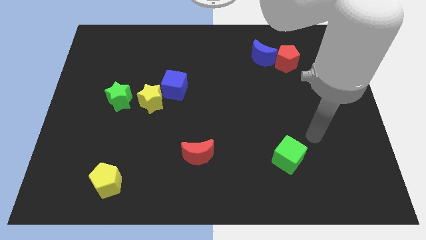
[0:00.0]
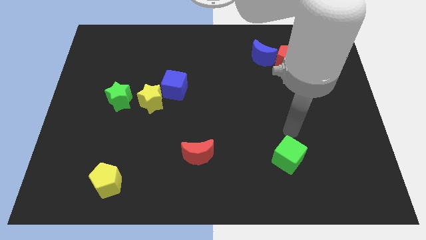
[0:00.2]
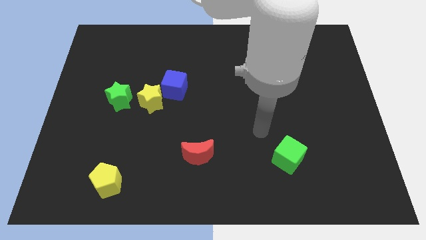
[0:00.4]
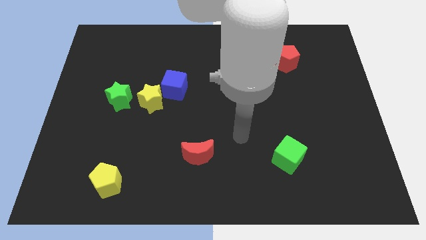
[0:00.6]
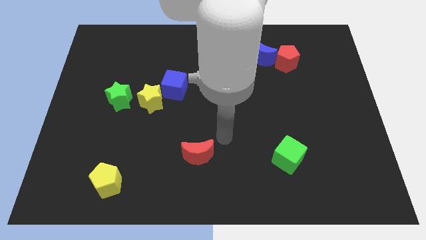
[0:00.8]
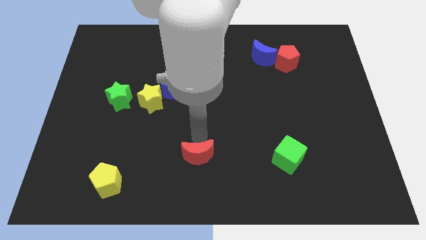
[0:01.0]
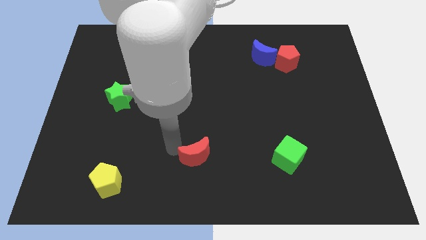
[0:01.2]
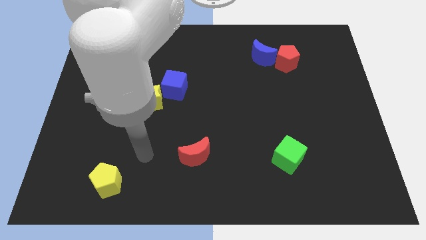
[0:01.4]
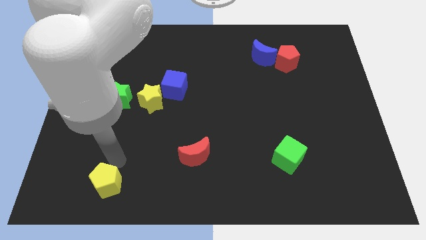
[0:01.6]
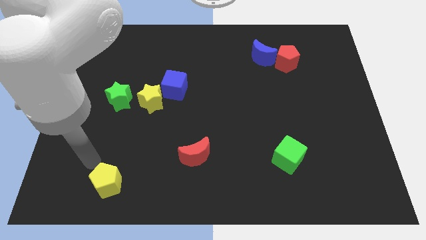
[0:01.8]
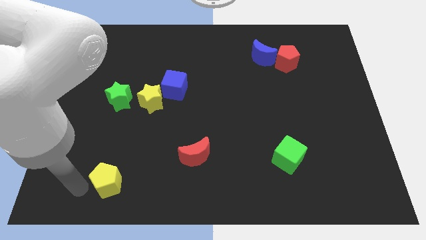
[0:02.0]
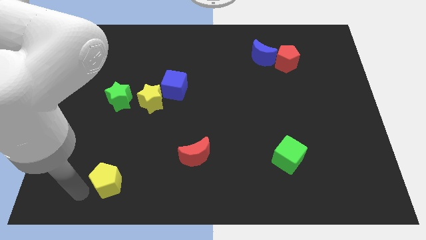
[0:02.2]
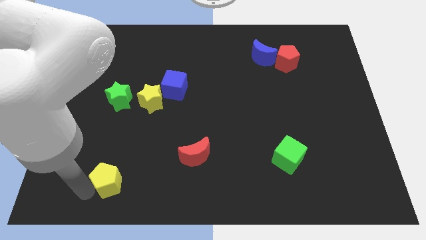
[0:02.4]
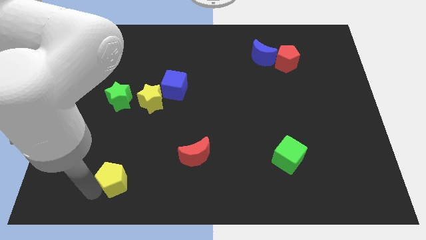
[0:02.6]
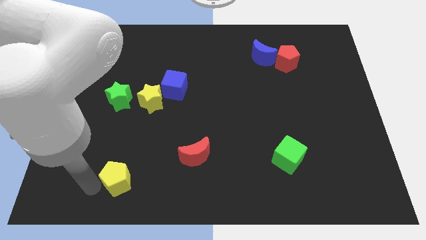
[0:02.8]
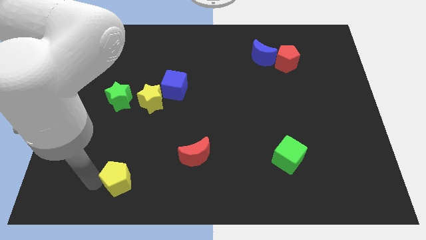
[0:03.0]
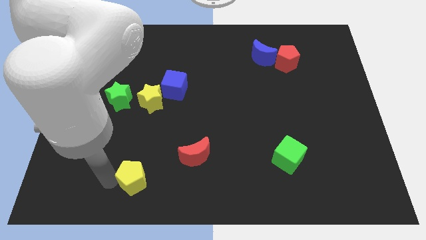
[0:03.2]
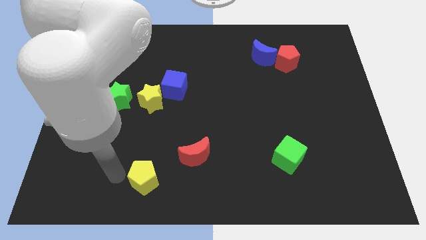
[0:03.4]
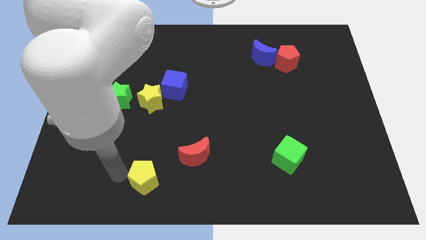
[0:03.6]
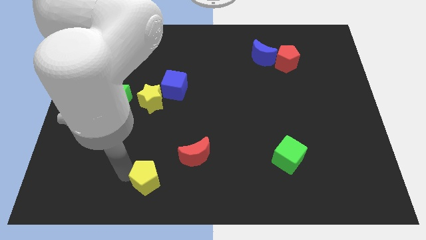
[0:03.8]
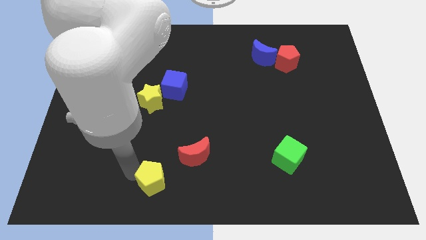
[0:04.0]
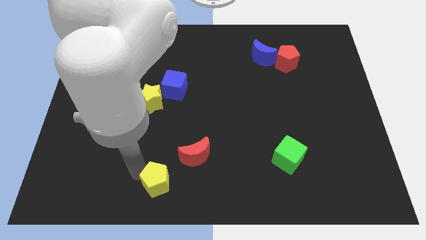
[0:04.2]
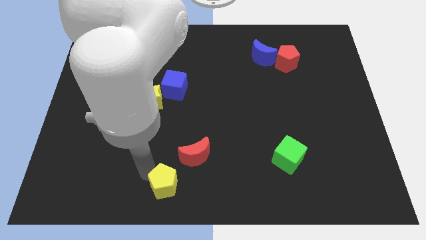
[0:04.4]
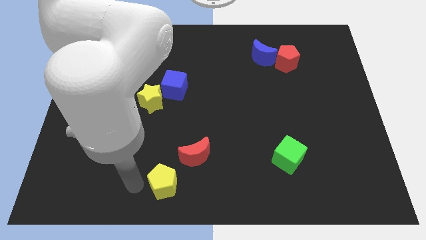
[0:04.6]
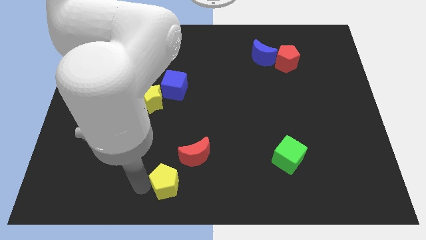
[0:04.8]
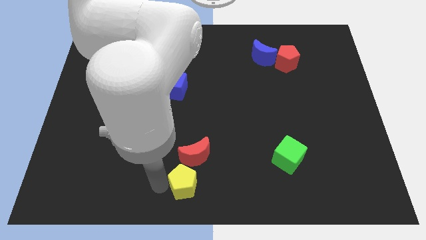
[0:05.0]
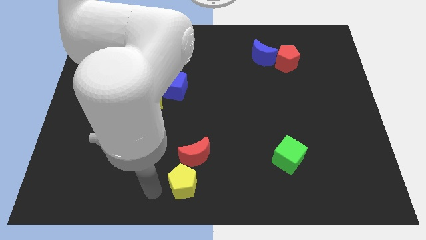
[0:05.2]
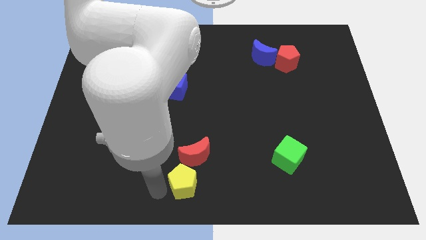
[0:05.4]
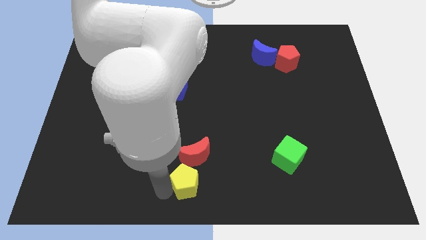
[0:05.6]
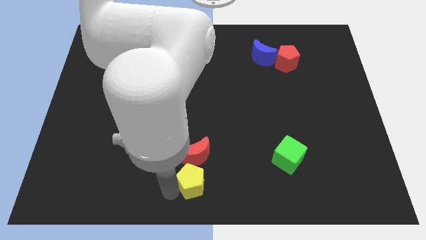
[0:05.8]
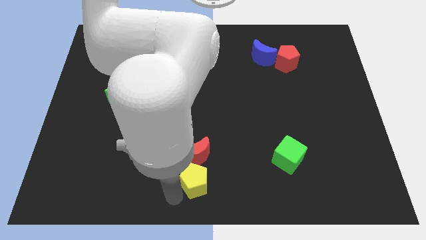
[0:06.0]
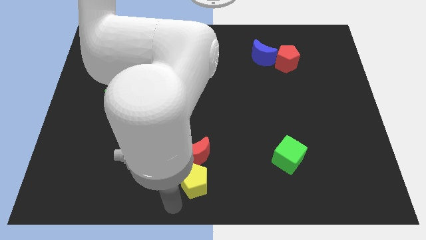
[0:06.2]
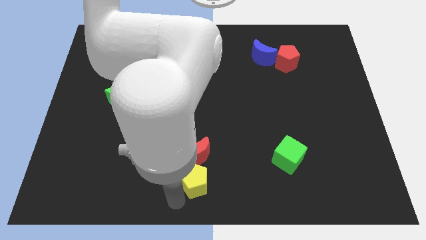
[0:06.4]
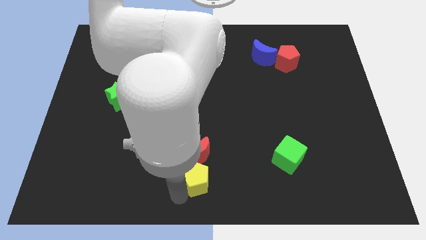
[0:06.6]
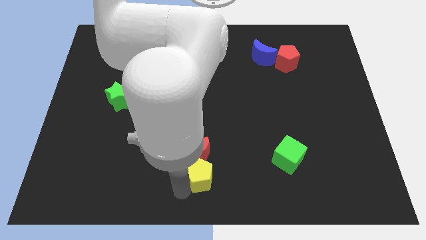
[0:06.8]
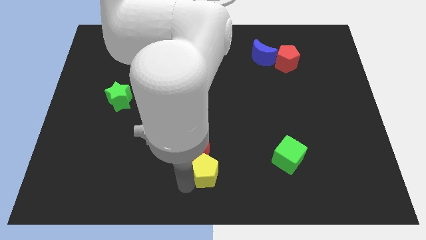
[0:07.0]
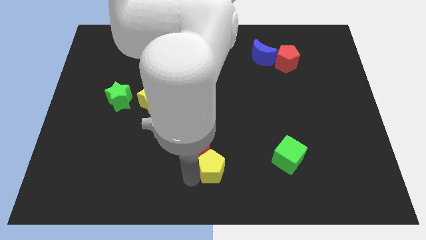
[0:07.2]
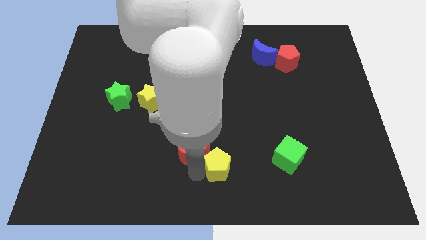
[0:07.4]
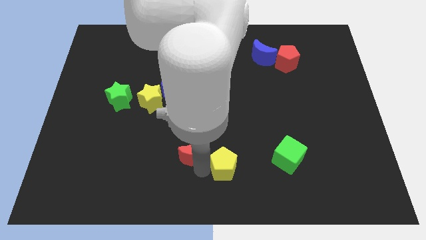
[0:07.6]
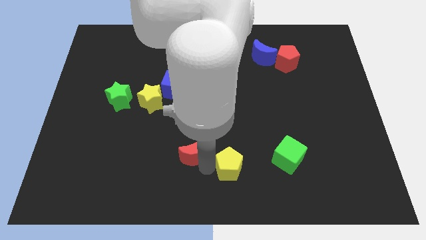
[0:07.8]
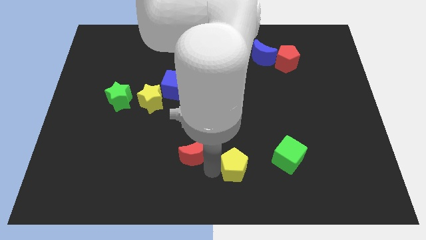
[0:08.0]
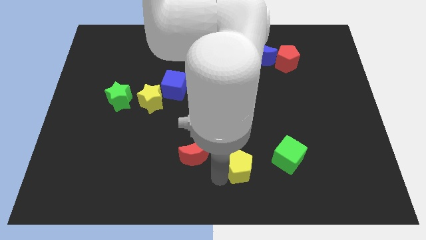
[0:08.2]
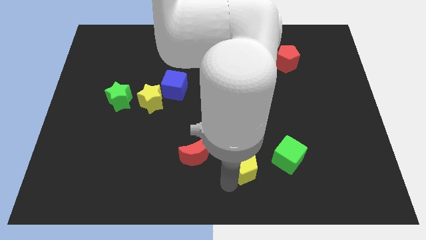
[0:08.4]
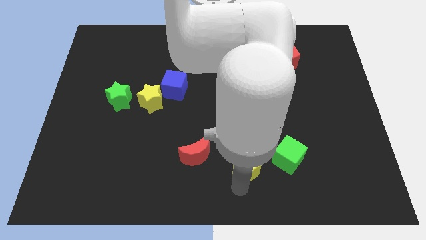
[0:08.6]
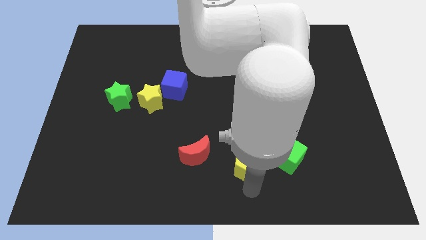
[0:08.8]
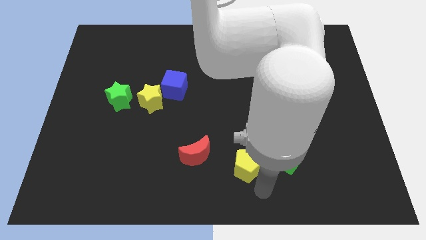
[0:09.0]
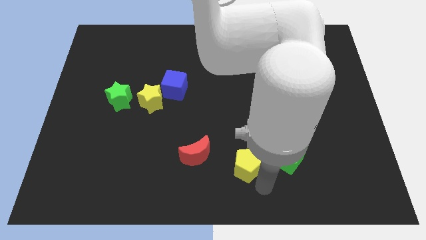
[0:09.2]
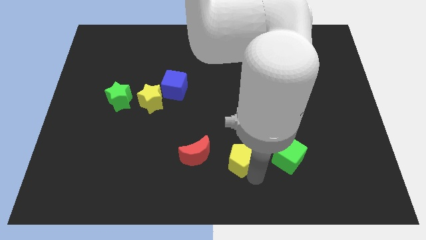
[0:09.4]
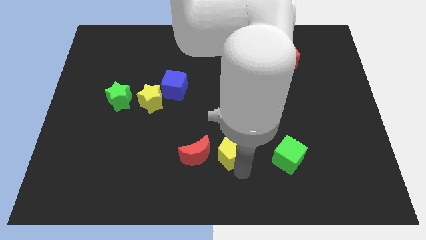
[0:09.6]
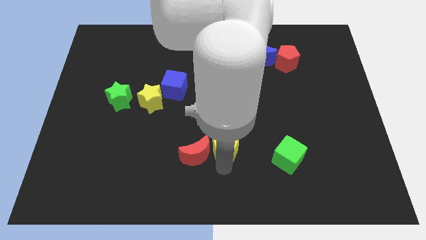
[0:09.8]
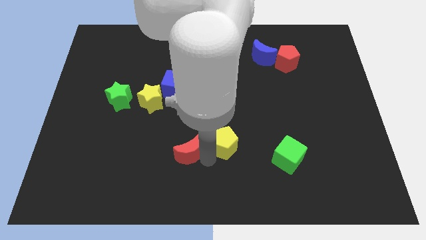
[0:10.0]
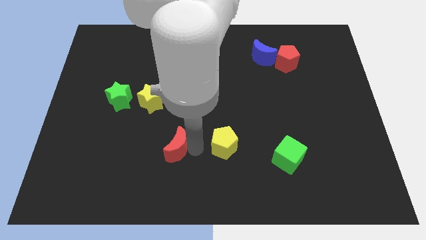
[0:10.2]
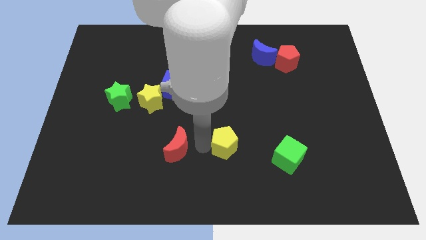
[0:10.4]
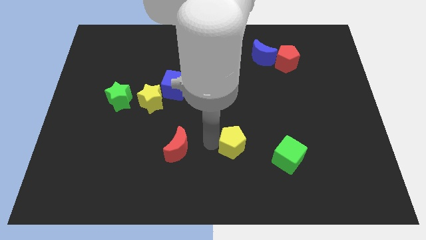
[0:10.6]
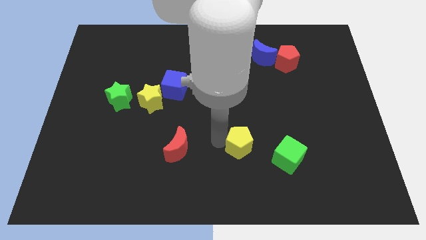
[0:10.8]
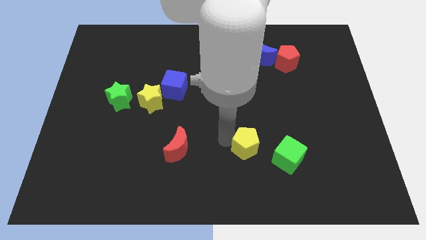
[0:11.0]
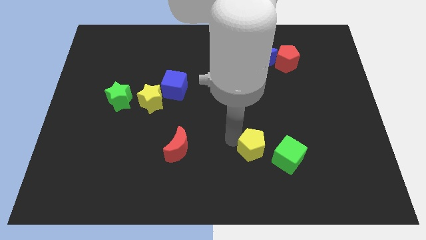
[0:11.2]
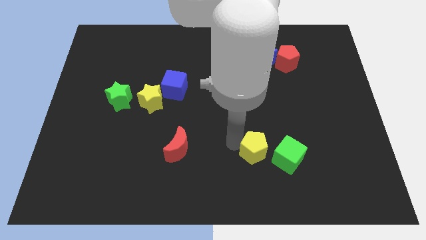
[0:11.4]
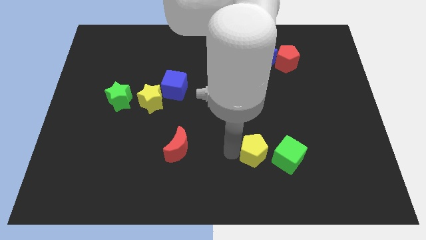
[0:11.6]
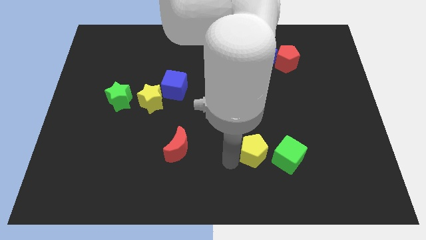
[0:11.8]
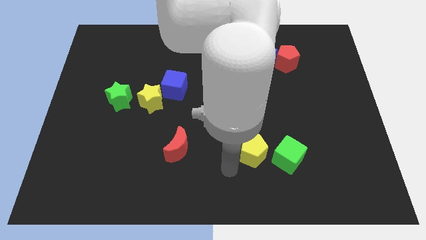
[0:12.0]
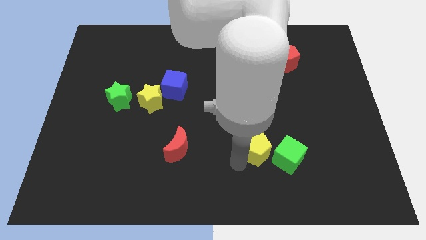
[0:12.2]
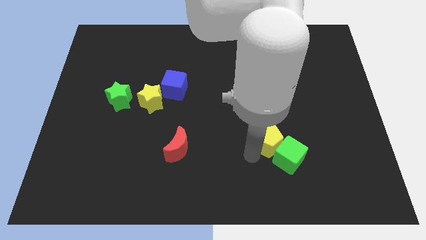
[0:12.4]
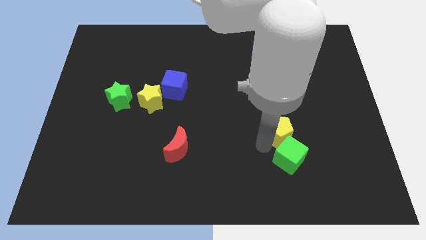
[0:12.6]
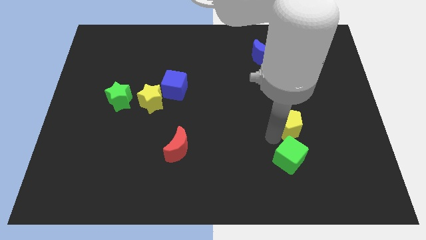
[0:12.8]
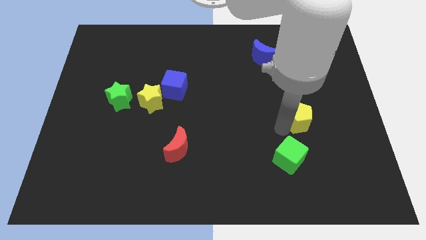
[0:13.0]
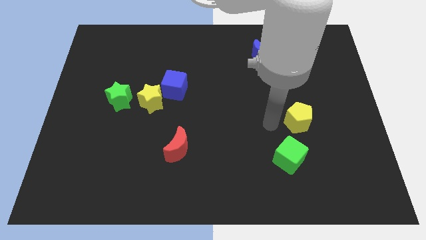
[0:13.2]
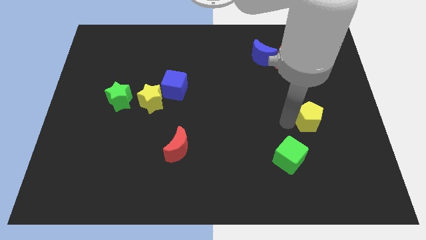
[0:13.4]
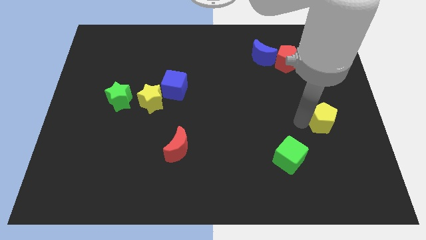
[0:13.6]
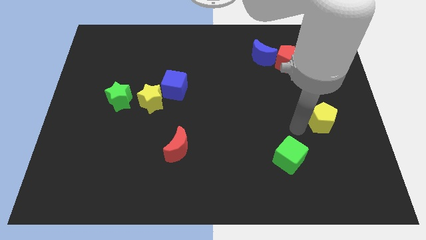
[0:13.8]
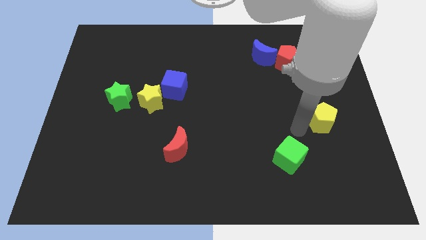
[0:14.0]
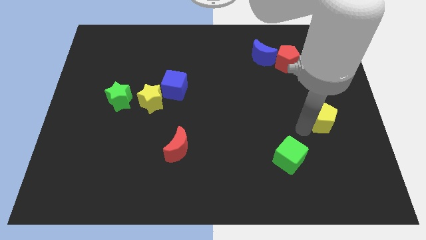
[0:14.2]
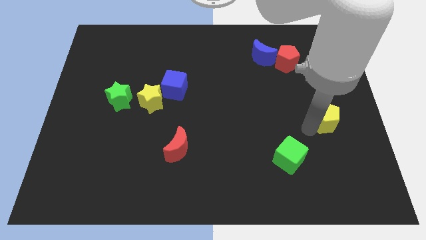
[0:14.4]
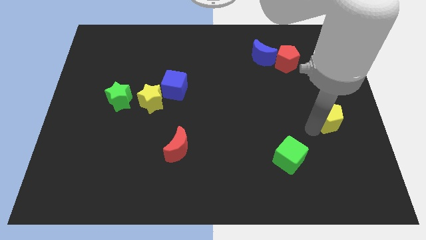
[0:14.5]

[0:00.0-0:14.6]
push the yellow pentagon to the right side
